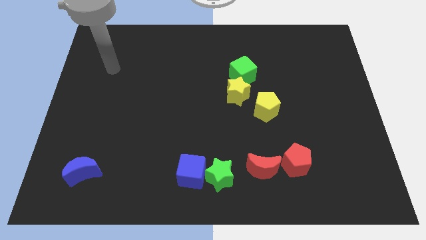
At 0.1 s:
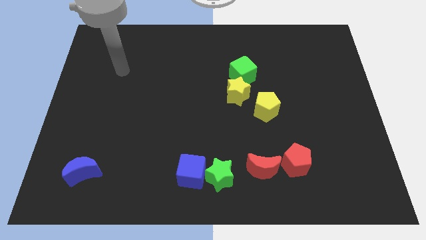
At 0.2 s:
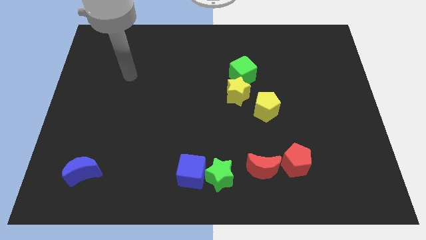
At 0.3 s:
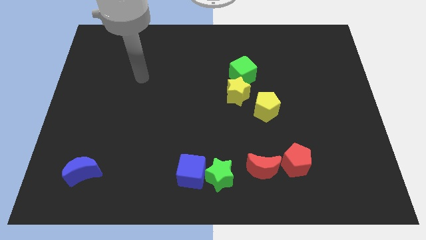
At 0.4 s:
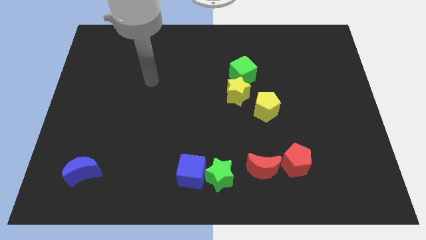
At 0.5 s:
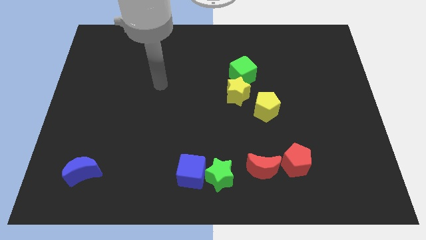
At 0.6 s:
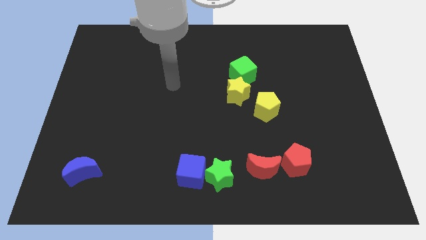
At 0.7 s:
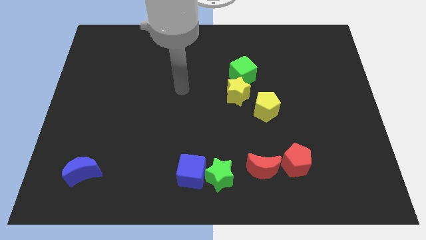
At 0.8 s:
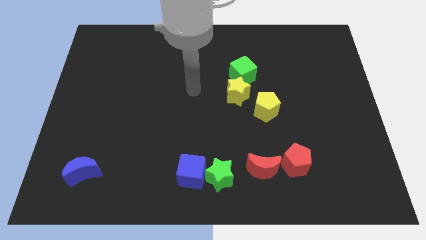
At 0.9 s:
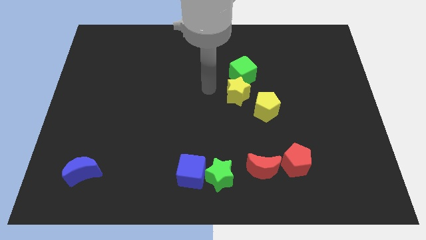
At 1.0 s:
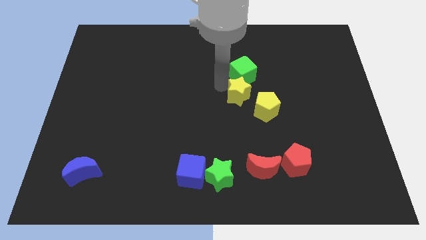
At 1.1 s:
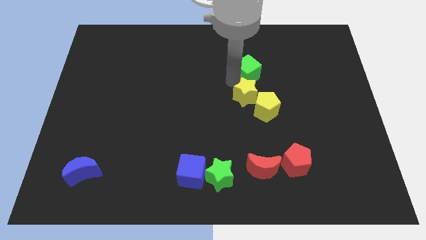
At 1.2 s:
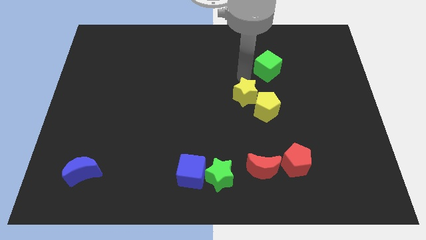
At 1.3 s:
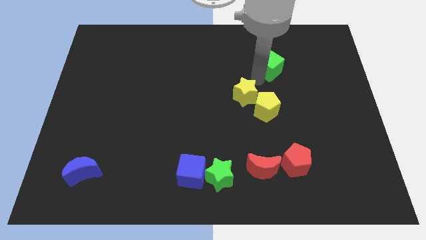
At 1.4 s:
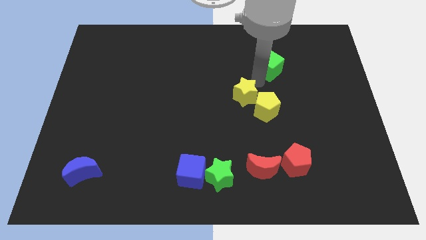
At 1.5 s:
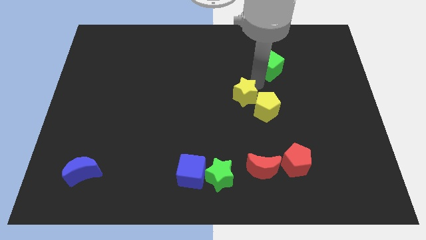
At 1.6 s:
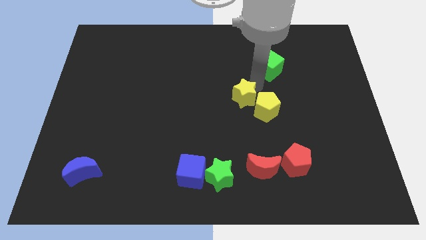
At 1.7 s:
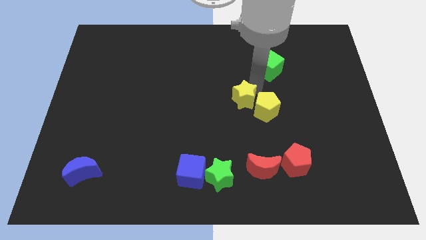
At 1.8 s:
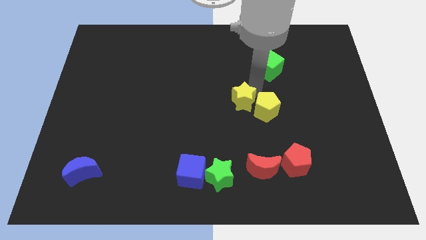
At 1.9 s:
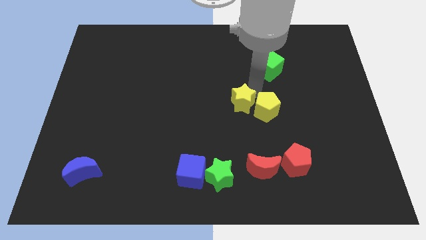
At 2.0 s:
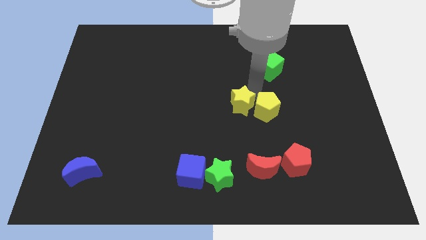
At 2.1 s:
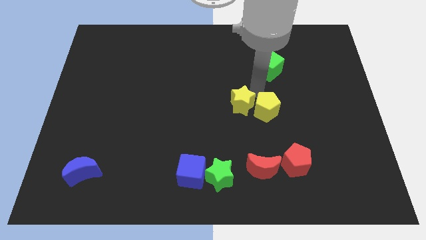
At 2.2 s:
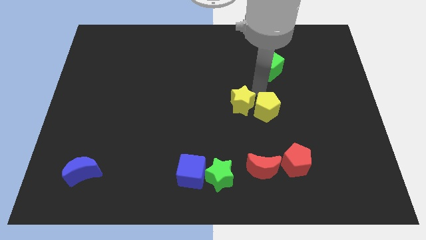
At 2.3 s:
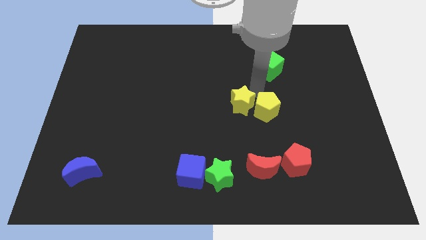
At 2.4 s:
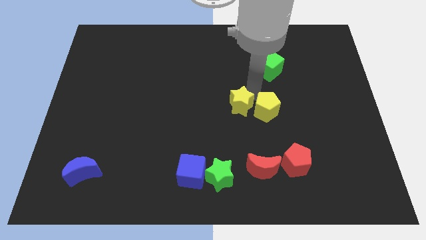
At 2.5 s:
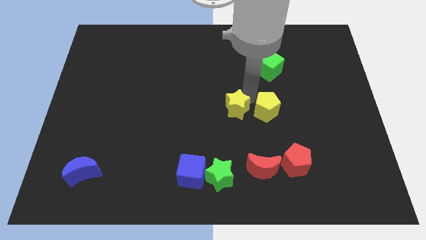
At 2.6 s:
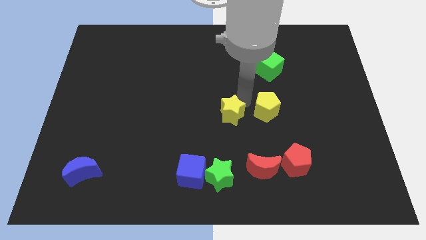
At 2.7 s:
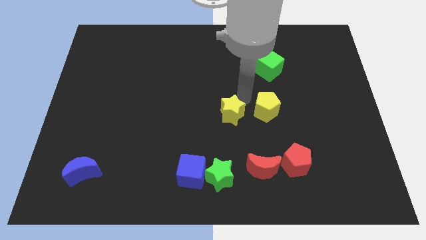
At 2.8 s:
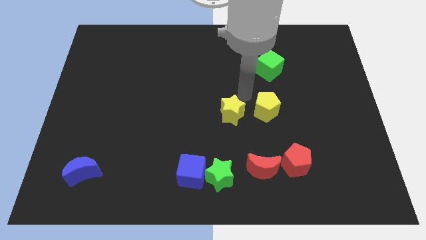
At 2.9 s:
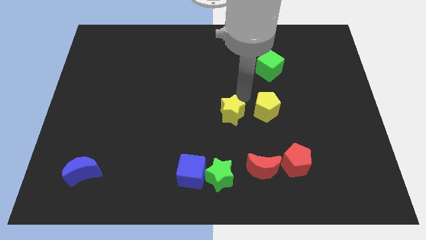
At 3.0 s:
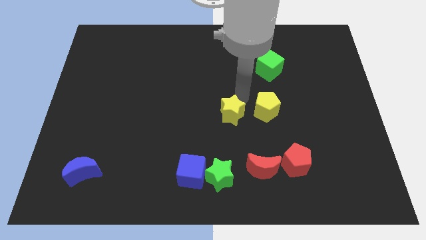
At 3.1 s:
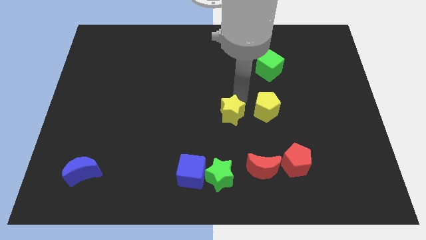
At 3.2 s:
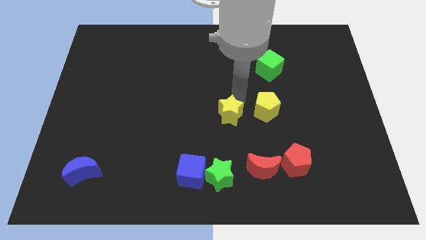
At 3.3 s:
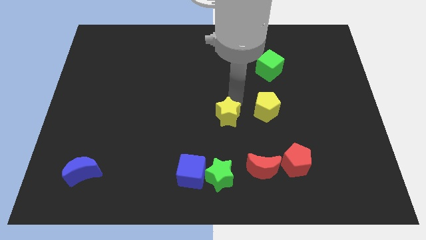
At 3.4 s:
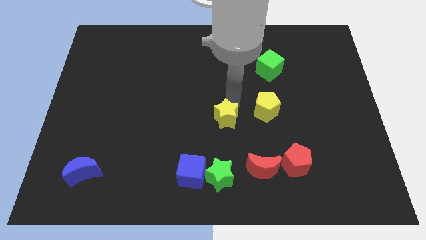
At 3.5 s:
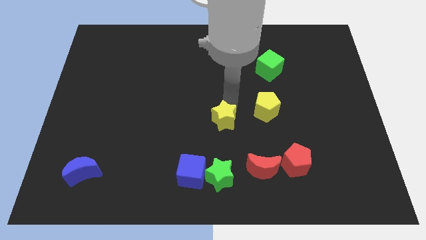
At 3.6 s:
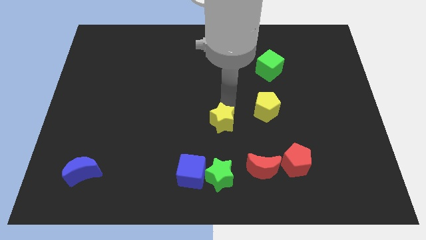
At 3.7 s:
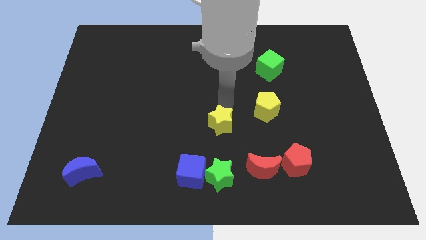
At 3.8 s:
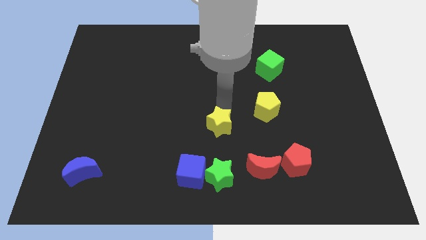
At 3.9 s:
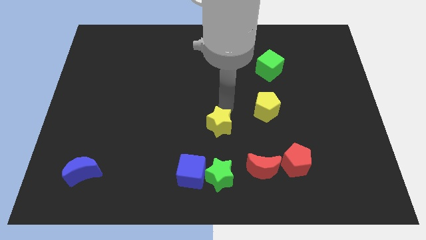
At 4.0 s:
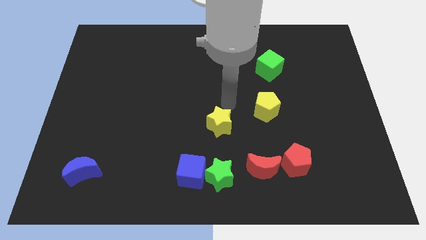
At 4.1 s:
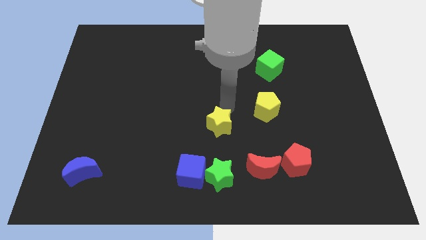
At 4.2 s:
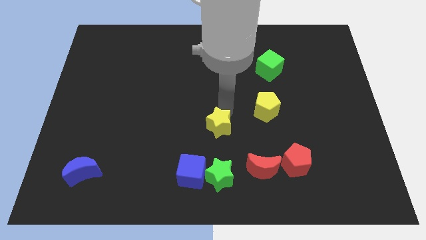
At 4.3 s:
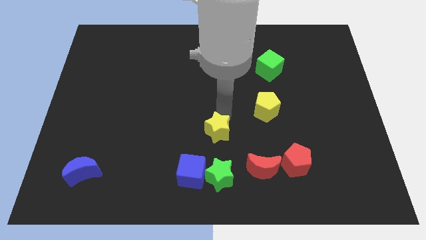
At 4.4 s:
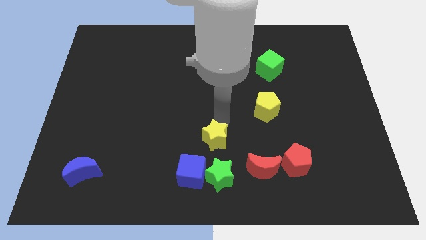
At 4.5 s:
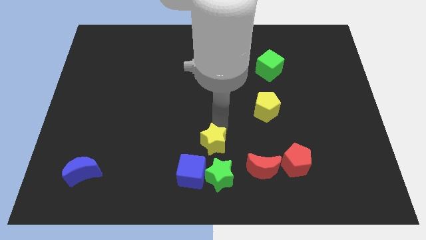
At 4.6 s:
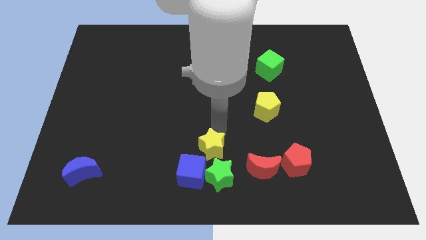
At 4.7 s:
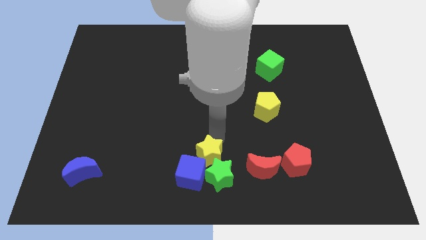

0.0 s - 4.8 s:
push the yellow star close to the blue cube

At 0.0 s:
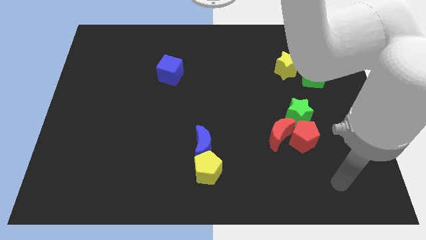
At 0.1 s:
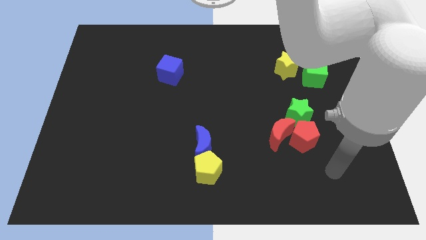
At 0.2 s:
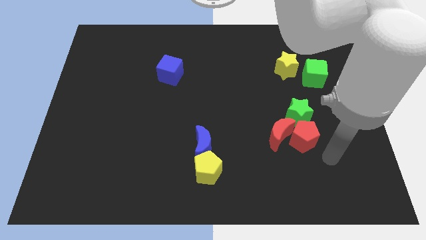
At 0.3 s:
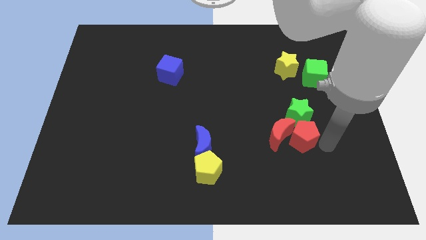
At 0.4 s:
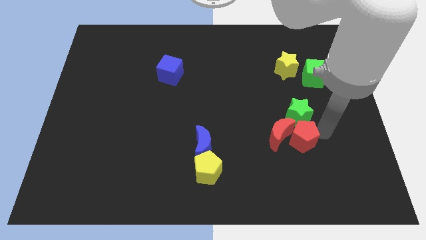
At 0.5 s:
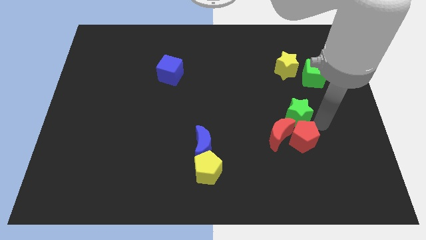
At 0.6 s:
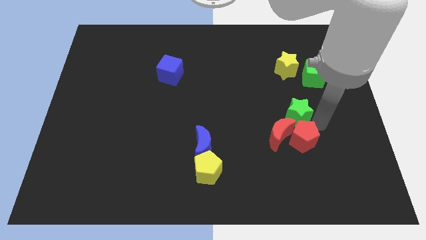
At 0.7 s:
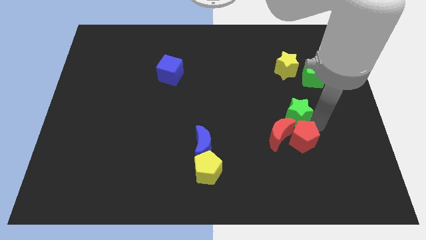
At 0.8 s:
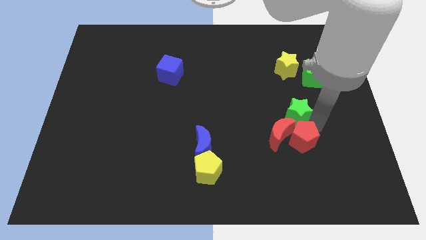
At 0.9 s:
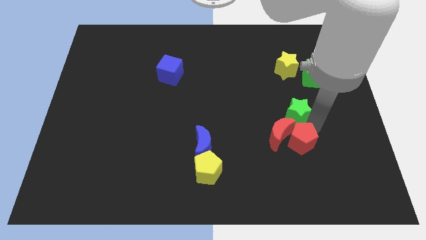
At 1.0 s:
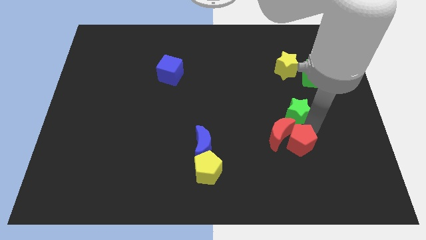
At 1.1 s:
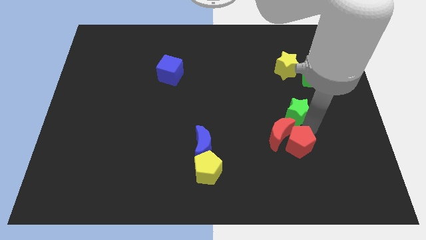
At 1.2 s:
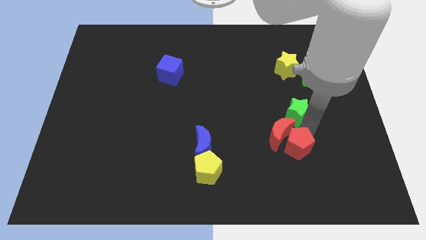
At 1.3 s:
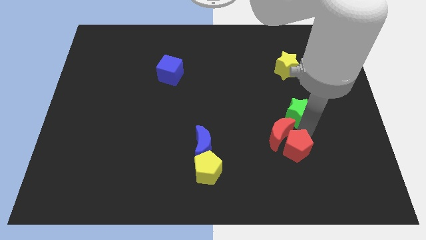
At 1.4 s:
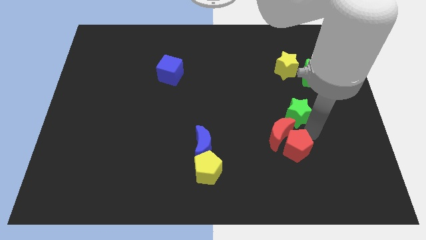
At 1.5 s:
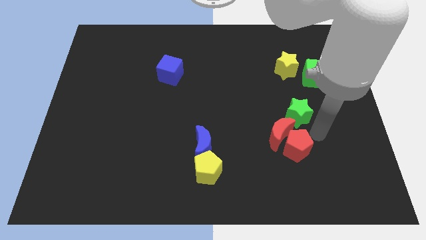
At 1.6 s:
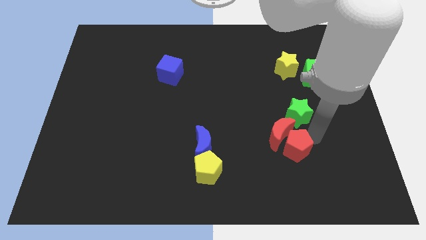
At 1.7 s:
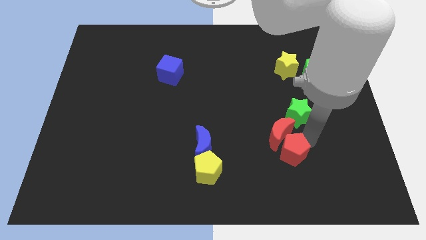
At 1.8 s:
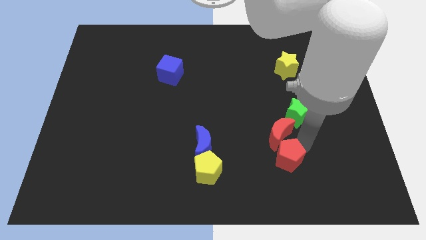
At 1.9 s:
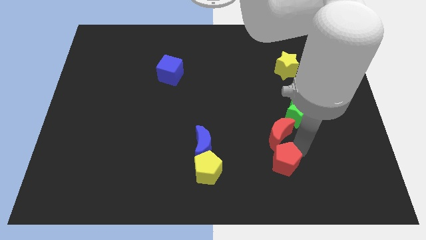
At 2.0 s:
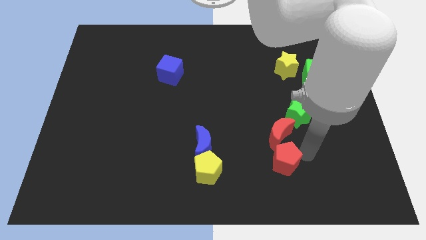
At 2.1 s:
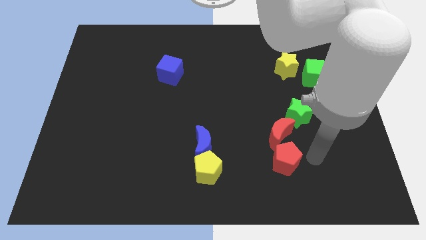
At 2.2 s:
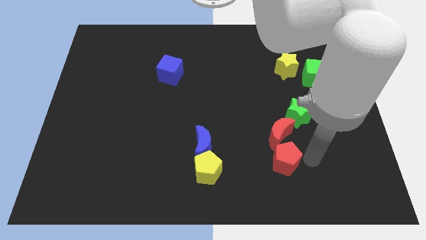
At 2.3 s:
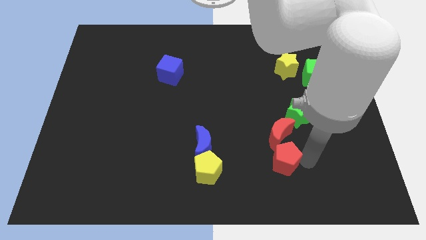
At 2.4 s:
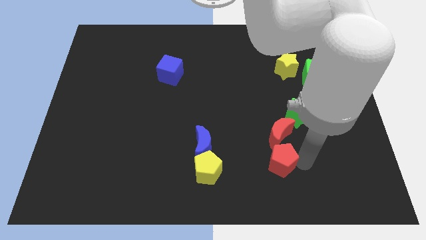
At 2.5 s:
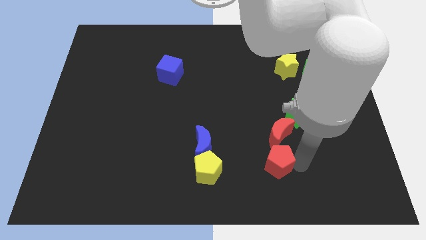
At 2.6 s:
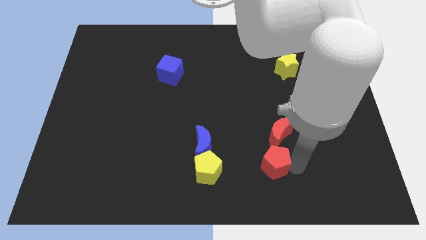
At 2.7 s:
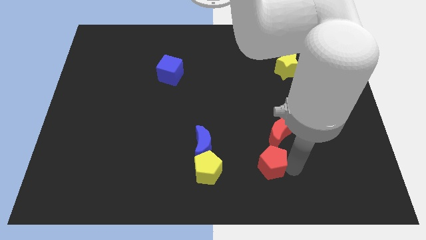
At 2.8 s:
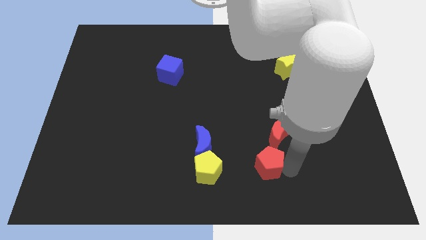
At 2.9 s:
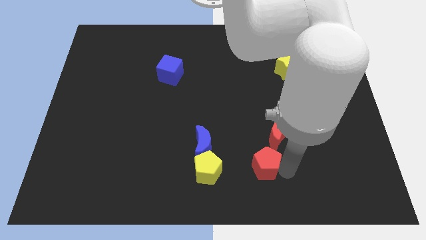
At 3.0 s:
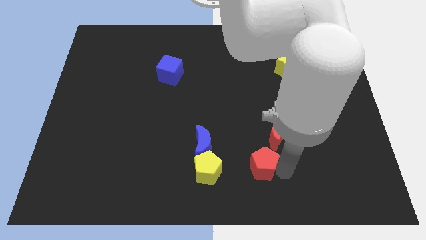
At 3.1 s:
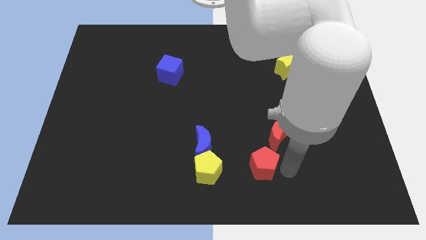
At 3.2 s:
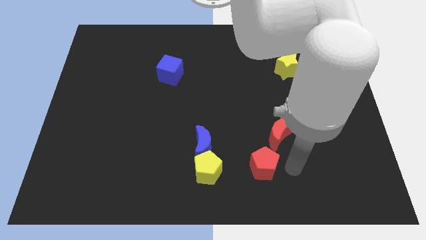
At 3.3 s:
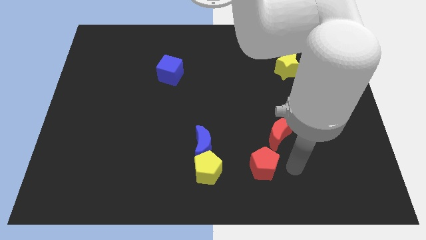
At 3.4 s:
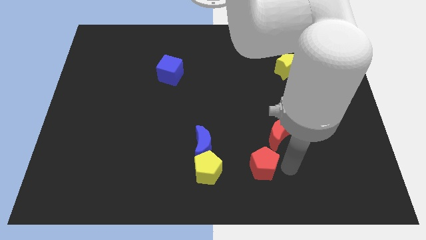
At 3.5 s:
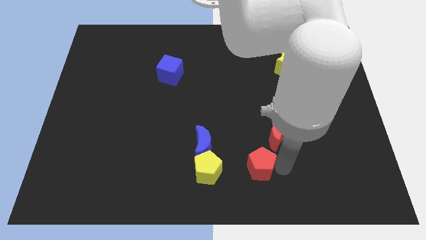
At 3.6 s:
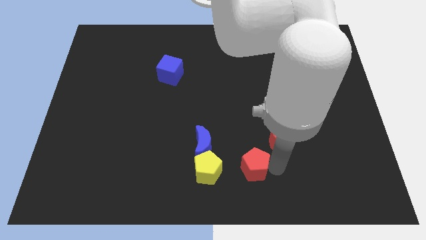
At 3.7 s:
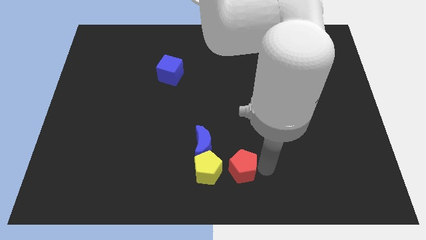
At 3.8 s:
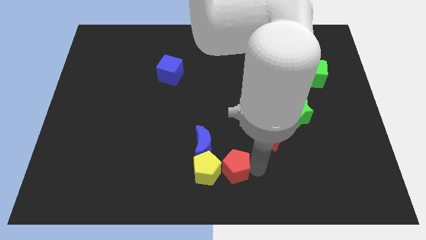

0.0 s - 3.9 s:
slide the red pentagon next to the yellow pentagon
